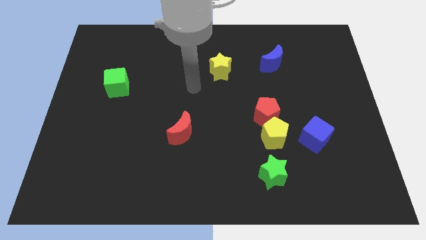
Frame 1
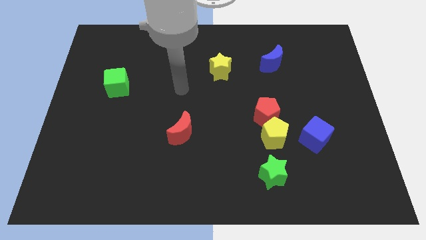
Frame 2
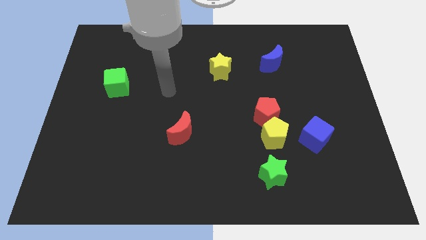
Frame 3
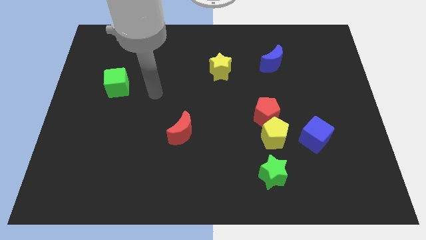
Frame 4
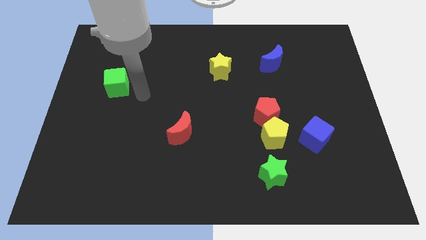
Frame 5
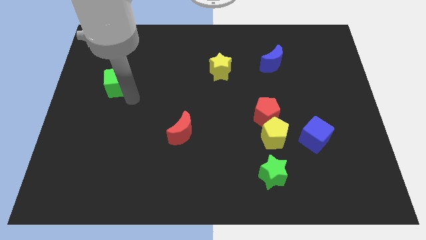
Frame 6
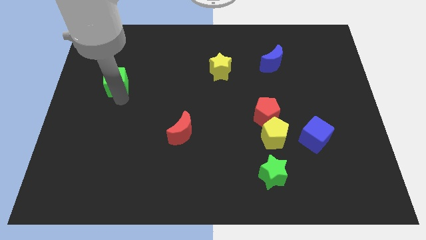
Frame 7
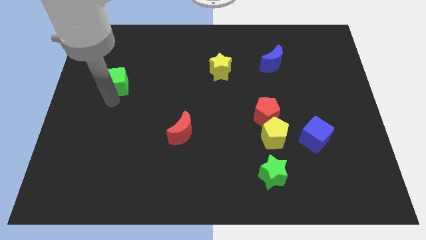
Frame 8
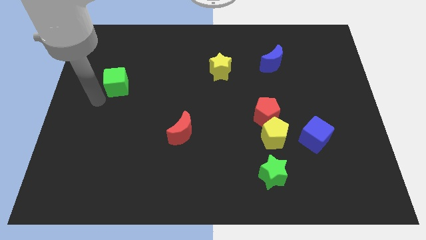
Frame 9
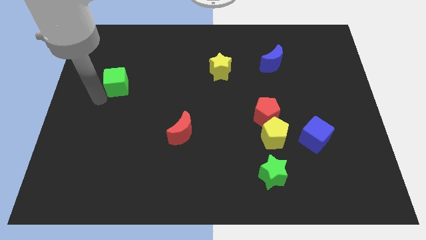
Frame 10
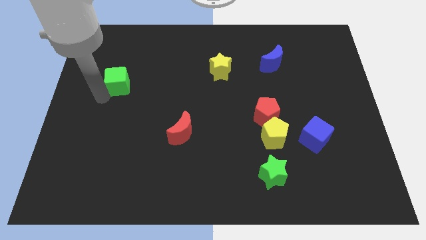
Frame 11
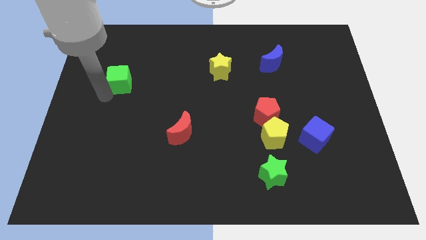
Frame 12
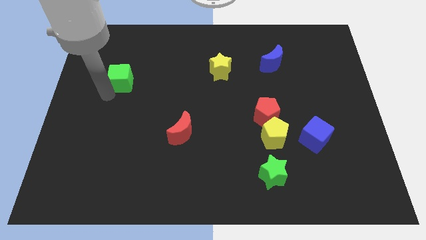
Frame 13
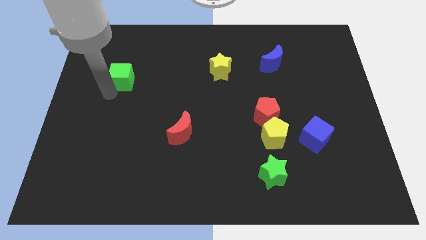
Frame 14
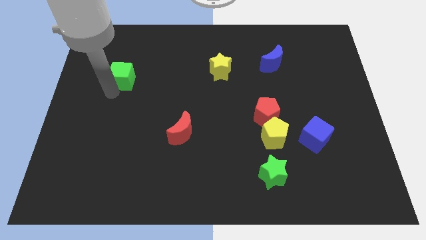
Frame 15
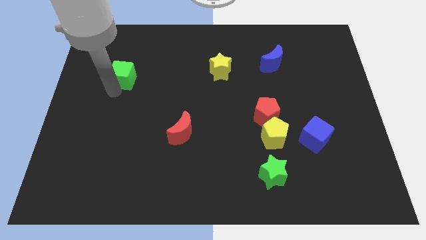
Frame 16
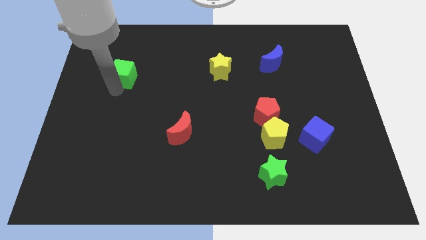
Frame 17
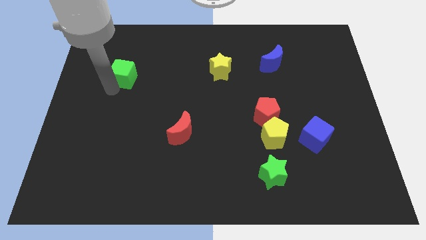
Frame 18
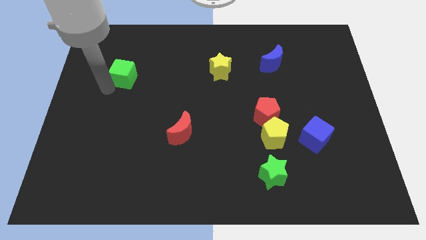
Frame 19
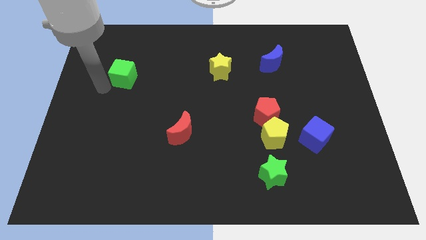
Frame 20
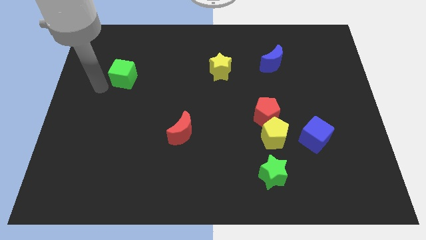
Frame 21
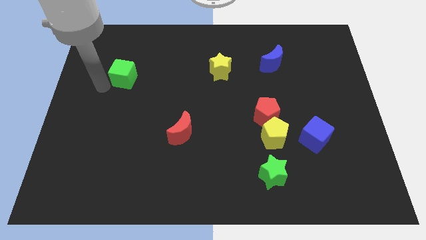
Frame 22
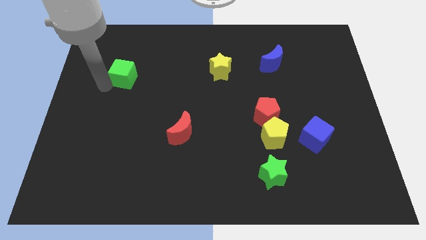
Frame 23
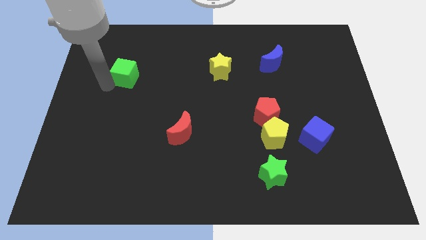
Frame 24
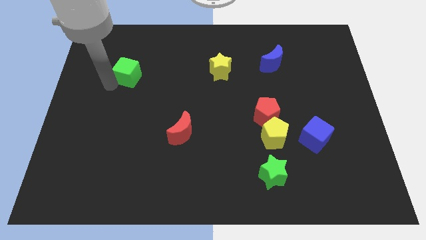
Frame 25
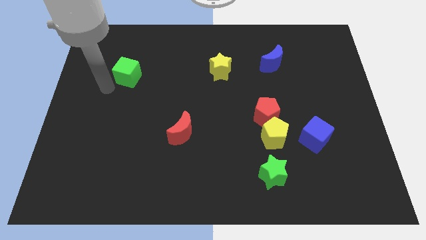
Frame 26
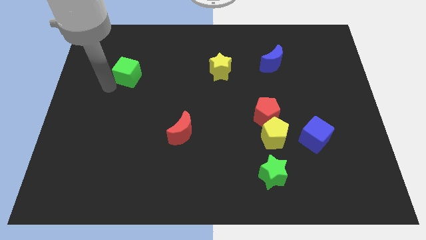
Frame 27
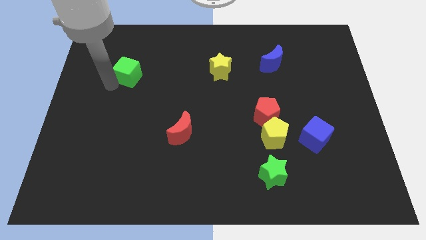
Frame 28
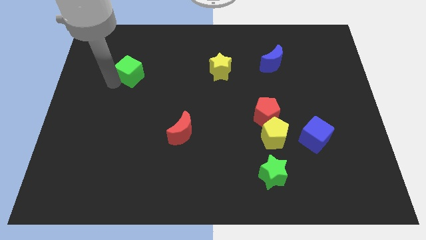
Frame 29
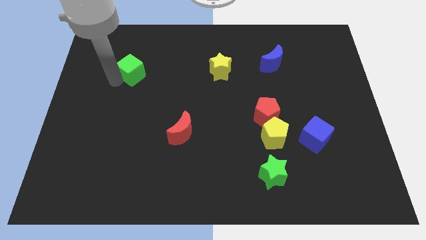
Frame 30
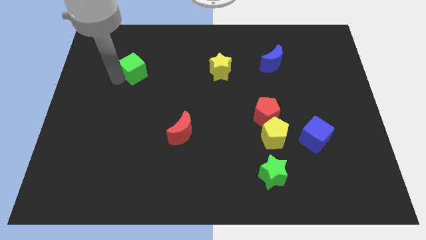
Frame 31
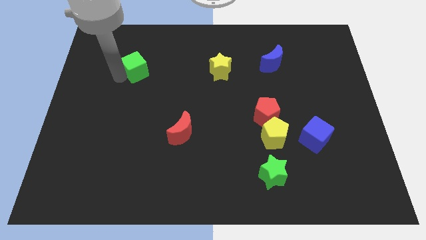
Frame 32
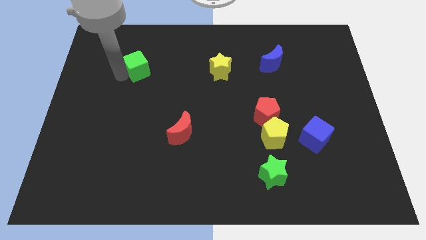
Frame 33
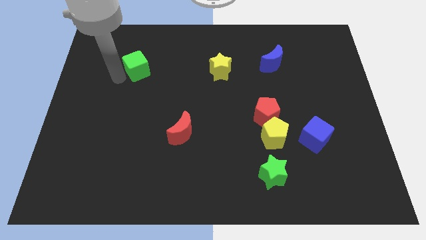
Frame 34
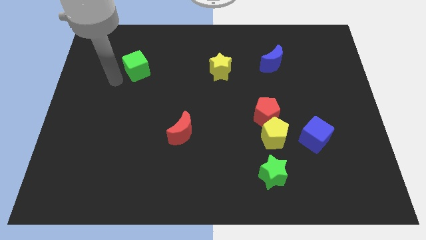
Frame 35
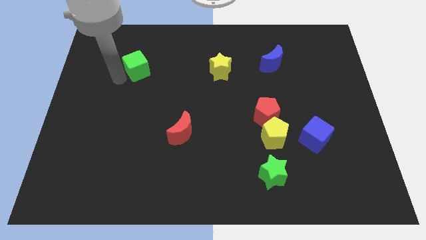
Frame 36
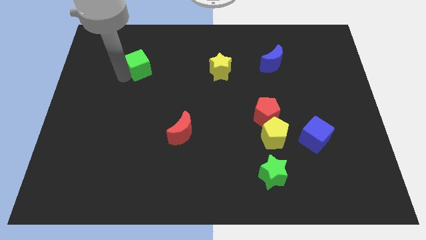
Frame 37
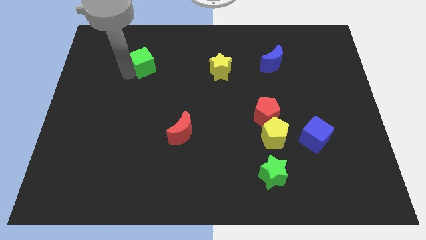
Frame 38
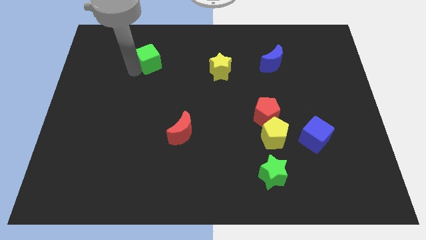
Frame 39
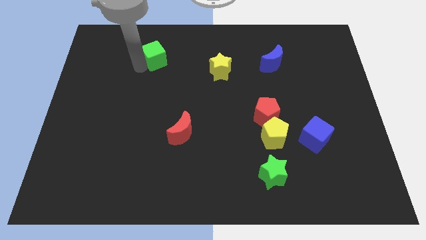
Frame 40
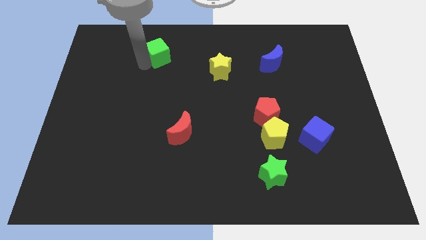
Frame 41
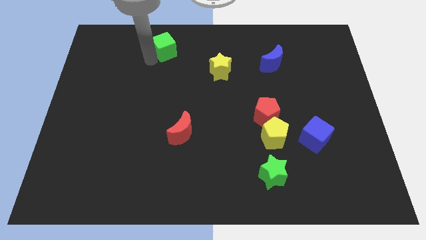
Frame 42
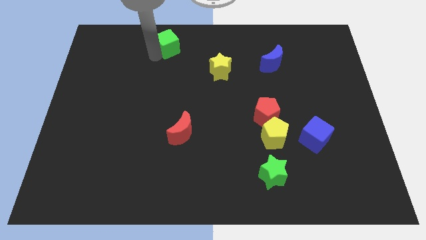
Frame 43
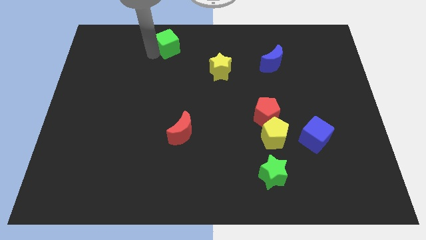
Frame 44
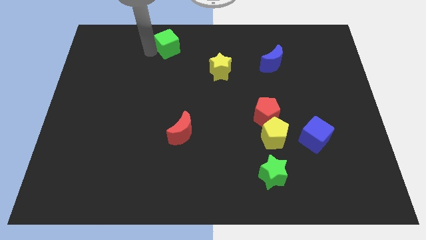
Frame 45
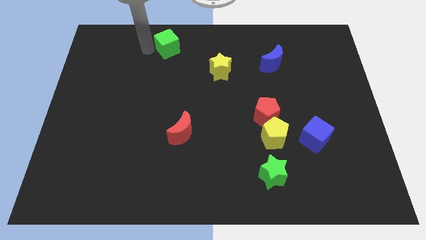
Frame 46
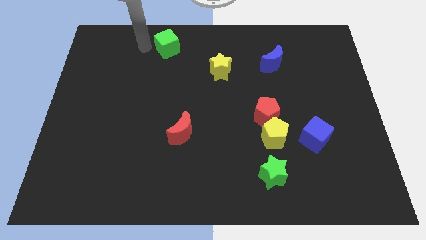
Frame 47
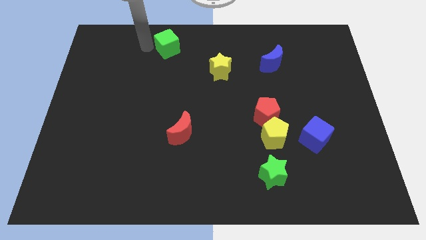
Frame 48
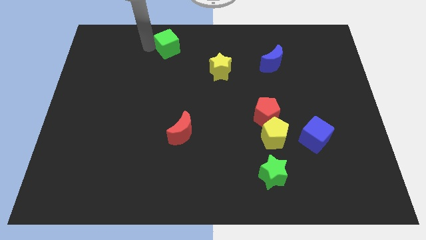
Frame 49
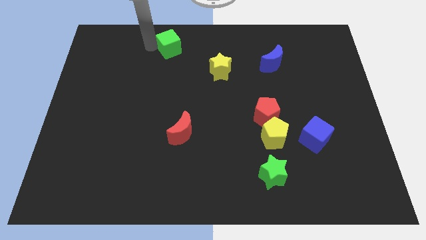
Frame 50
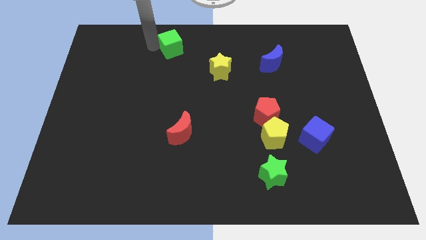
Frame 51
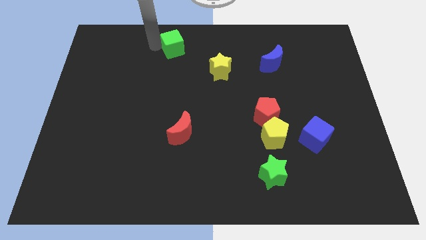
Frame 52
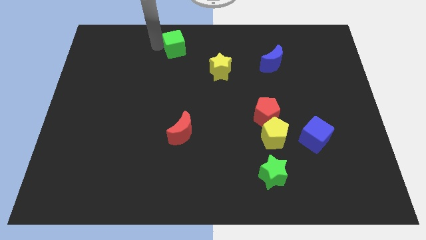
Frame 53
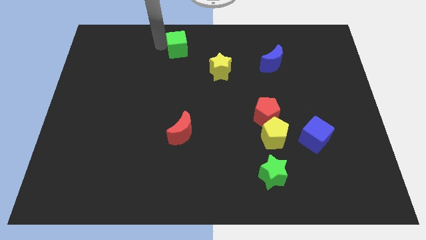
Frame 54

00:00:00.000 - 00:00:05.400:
put the green cube to the towards your base

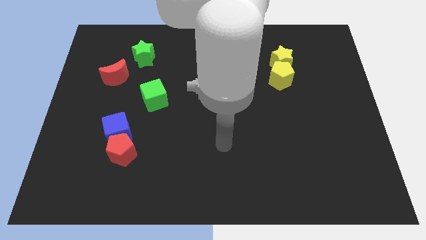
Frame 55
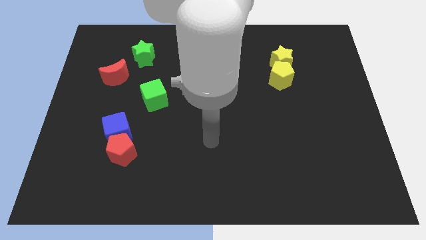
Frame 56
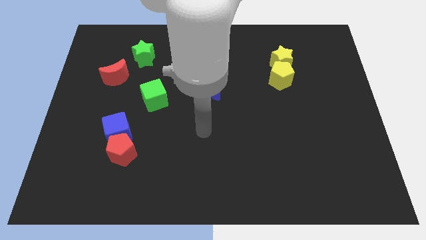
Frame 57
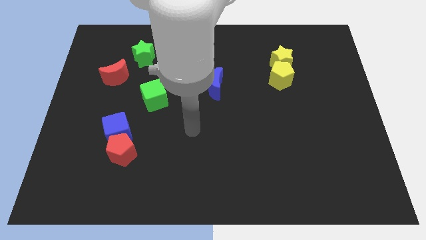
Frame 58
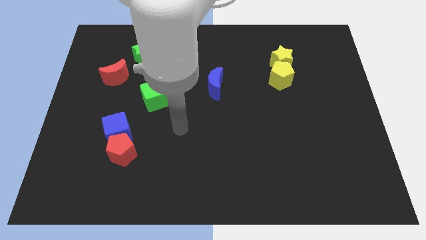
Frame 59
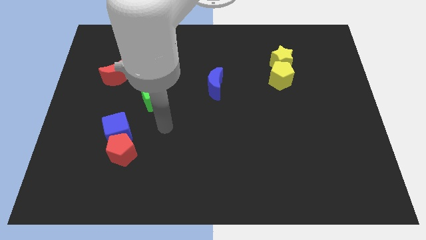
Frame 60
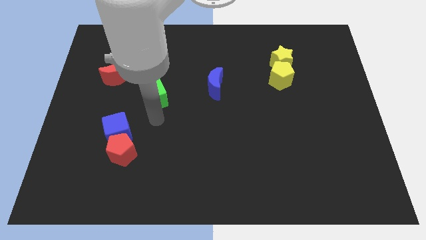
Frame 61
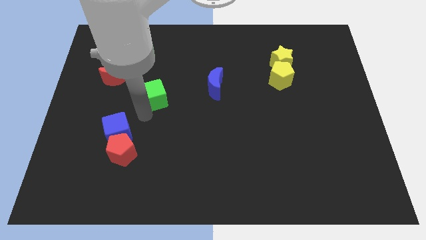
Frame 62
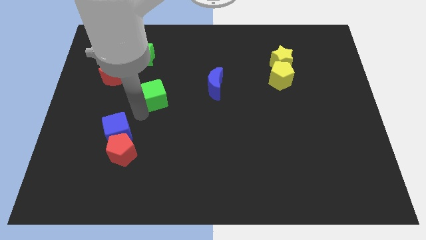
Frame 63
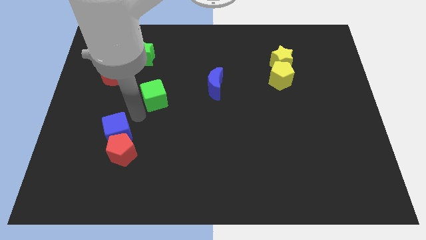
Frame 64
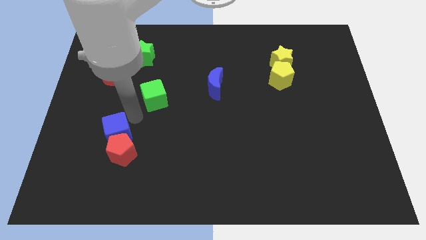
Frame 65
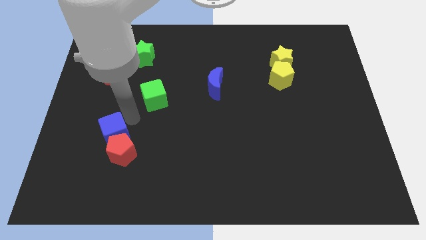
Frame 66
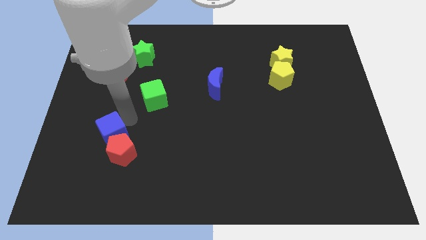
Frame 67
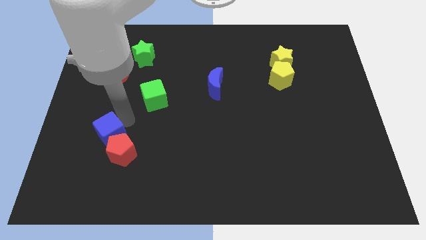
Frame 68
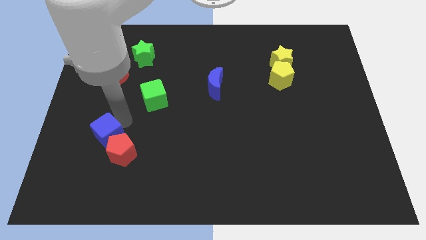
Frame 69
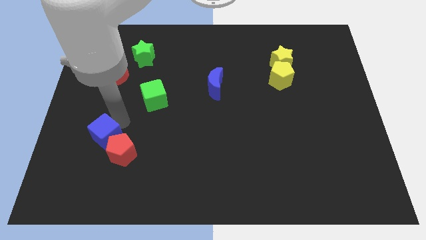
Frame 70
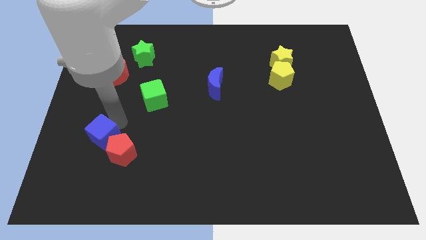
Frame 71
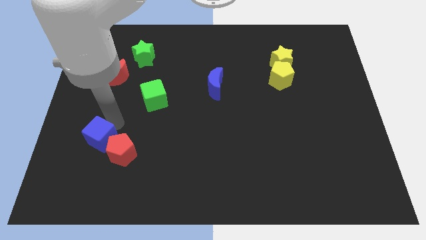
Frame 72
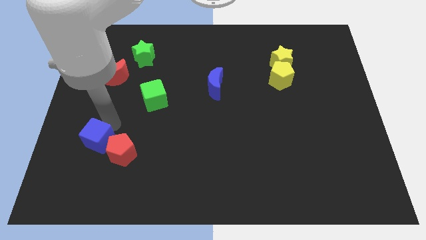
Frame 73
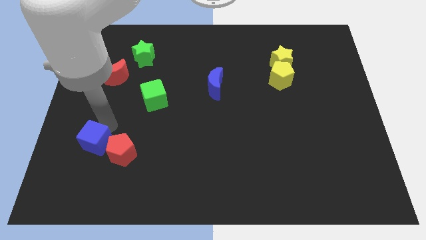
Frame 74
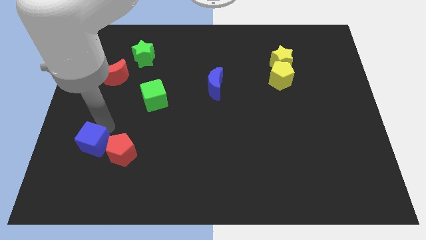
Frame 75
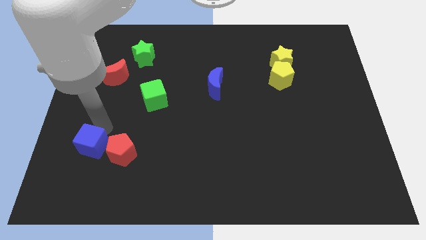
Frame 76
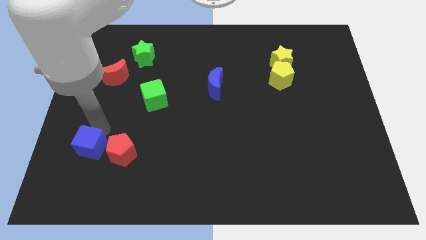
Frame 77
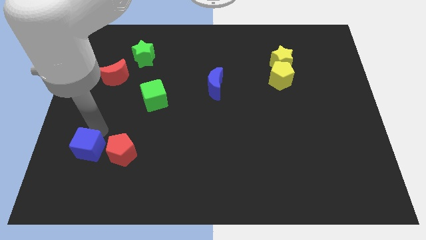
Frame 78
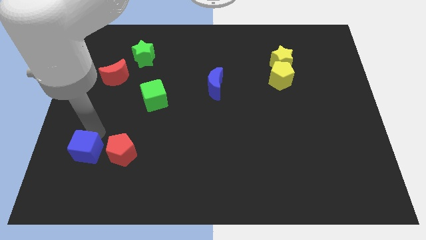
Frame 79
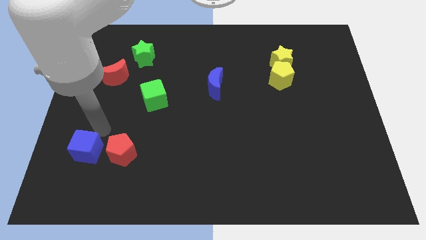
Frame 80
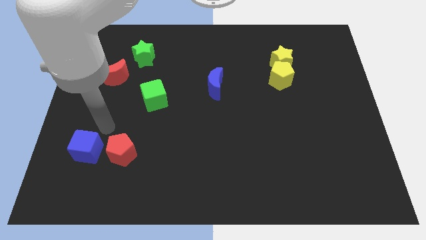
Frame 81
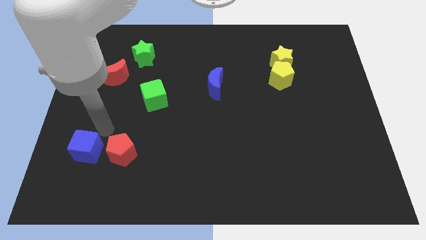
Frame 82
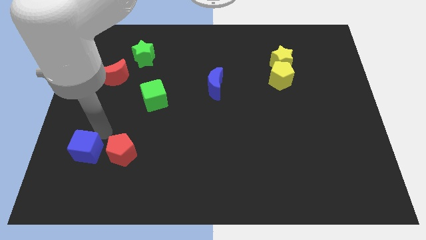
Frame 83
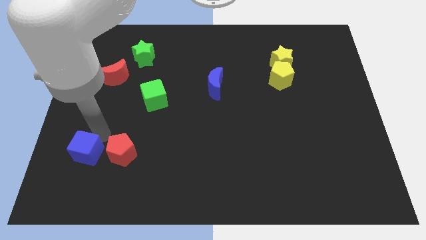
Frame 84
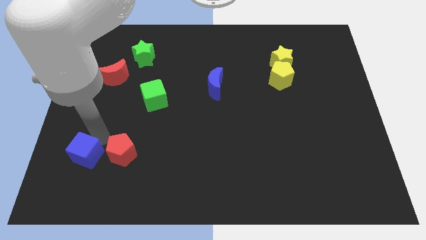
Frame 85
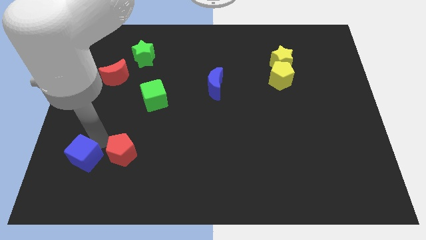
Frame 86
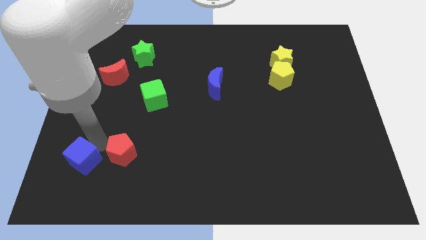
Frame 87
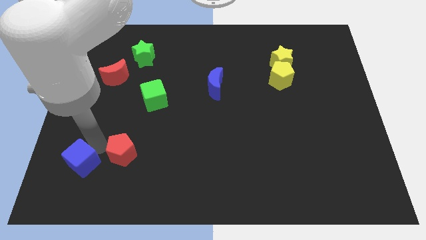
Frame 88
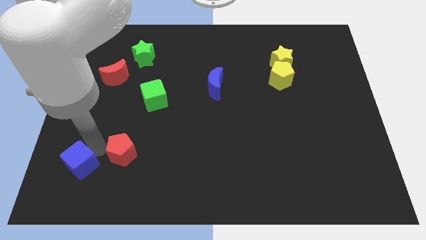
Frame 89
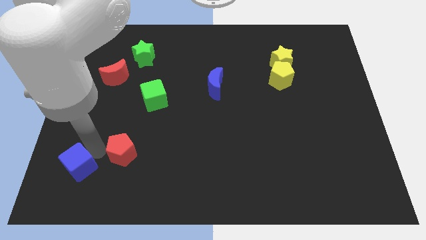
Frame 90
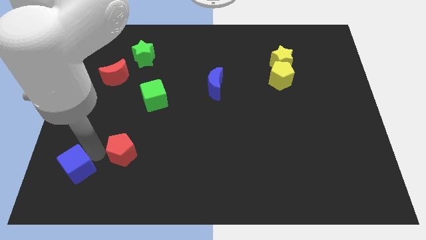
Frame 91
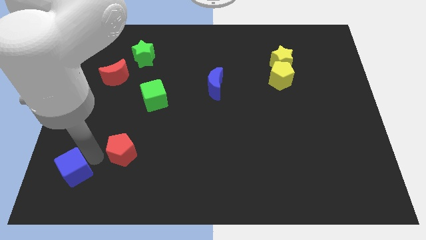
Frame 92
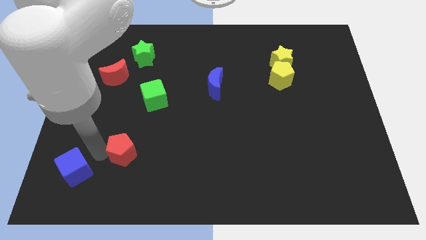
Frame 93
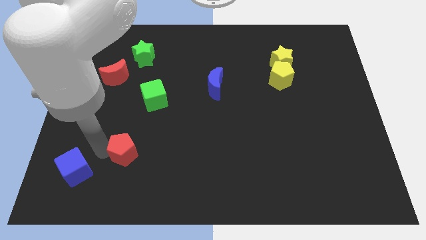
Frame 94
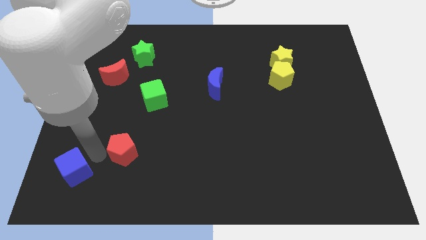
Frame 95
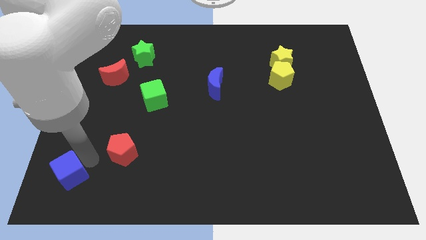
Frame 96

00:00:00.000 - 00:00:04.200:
move the blue cube to the bottom left
